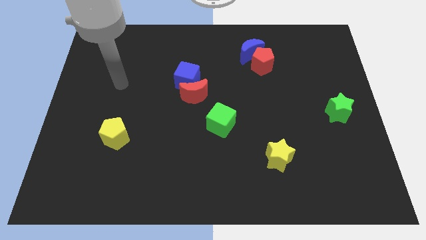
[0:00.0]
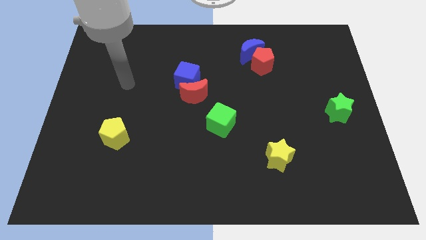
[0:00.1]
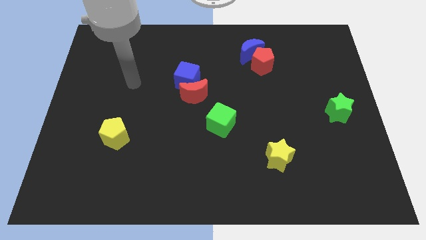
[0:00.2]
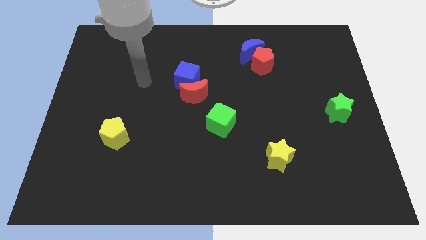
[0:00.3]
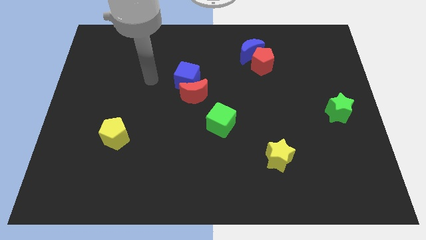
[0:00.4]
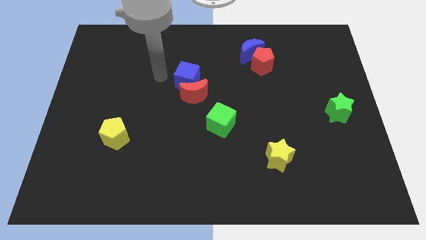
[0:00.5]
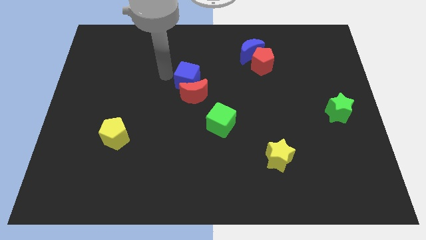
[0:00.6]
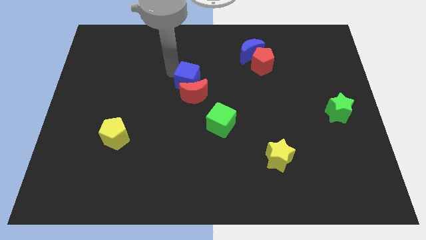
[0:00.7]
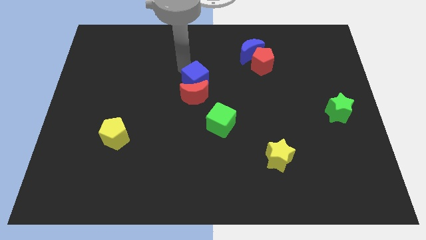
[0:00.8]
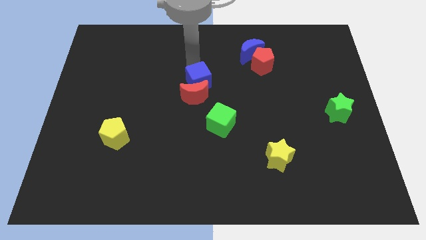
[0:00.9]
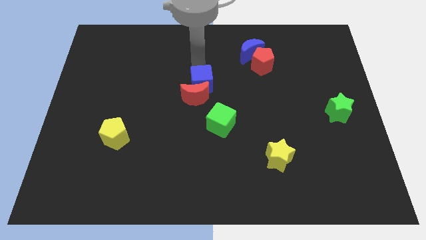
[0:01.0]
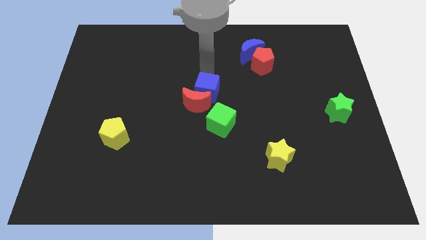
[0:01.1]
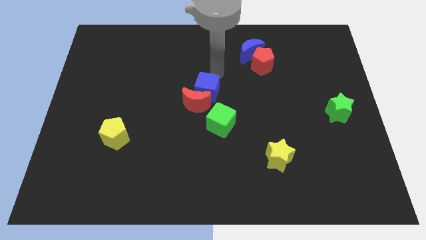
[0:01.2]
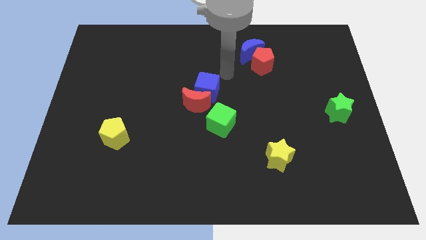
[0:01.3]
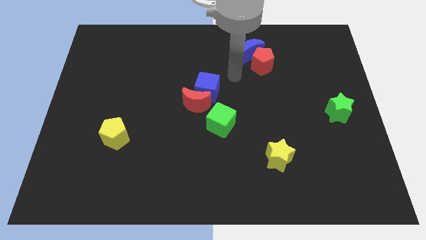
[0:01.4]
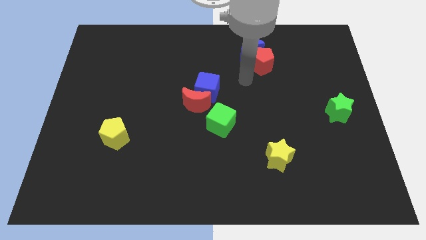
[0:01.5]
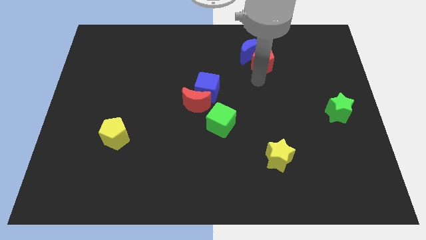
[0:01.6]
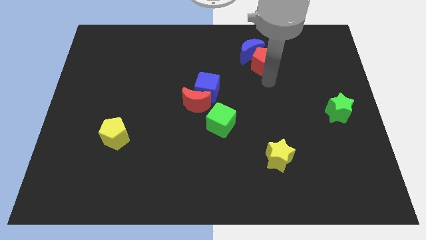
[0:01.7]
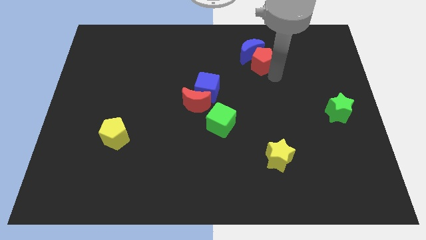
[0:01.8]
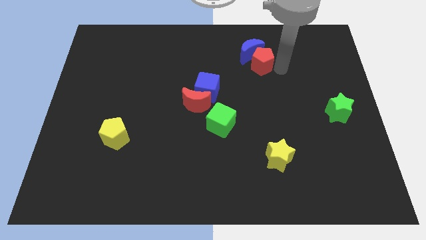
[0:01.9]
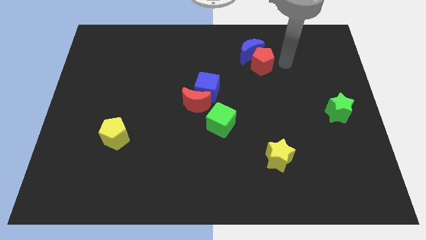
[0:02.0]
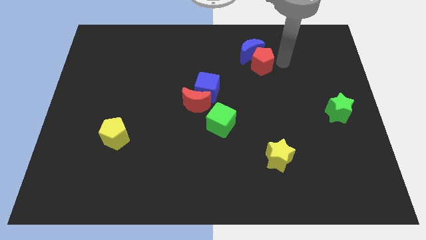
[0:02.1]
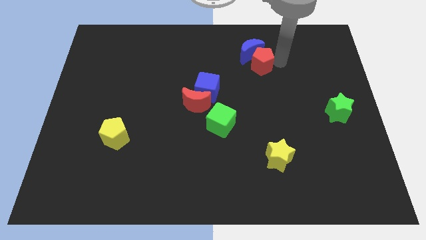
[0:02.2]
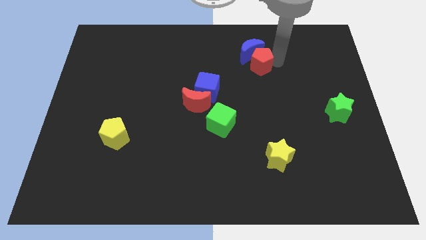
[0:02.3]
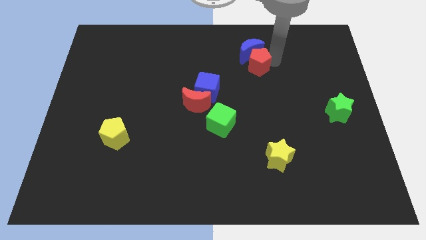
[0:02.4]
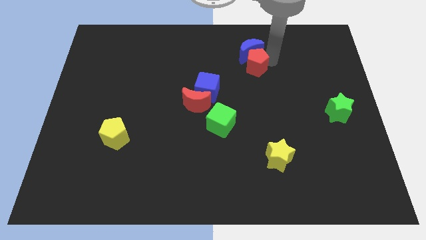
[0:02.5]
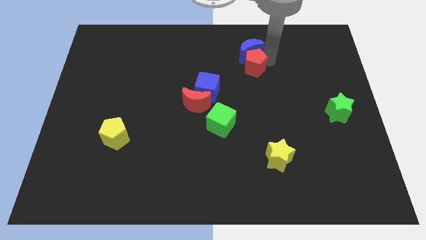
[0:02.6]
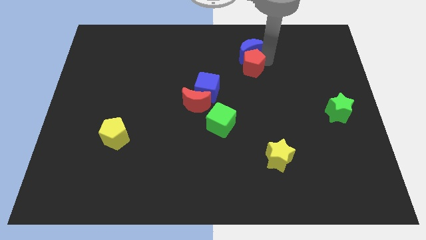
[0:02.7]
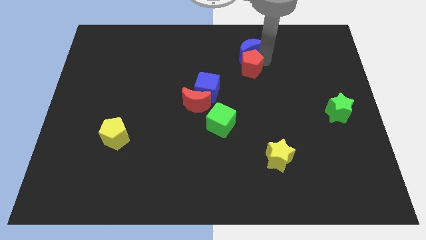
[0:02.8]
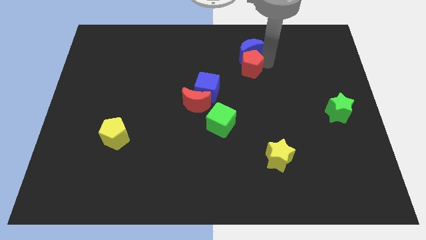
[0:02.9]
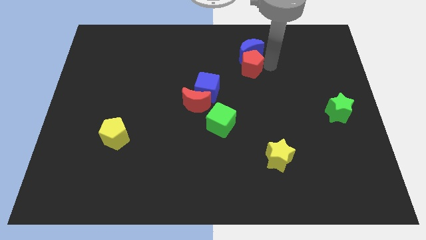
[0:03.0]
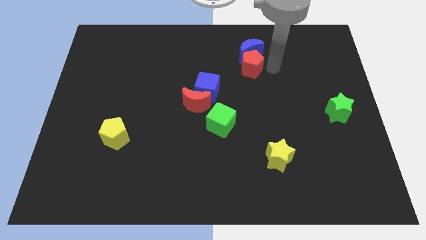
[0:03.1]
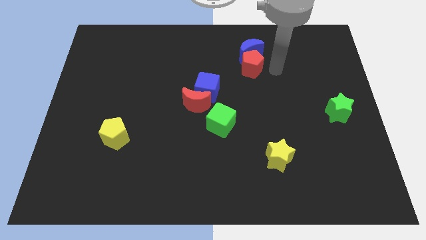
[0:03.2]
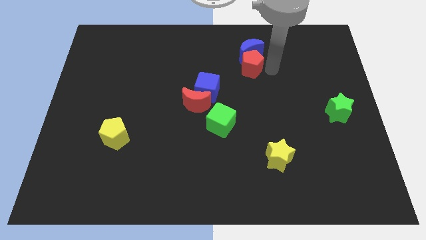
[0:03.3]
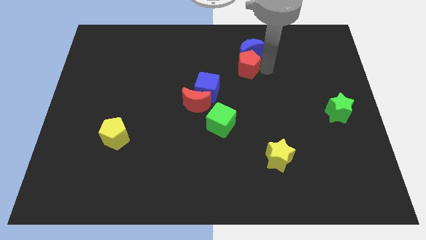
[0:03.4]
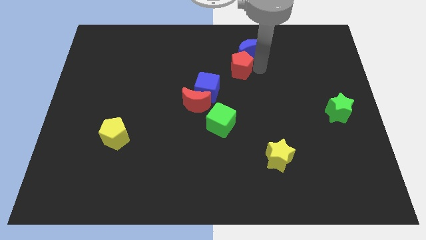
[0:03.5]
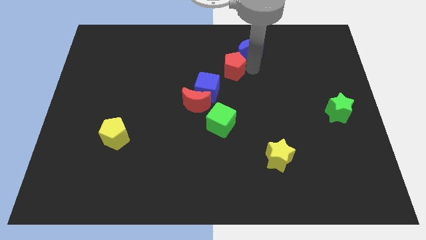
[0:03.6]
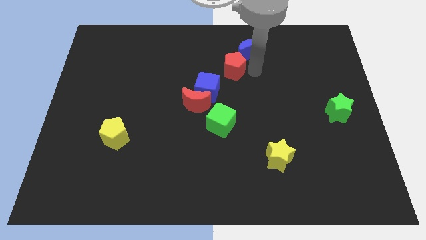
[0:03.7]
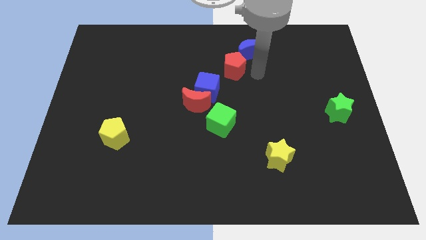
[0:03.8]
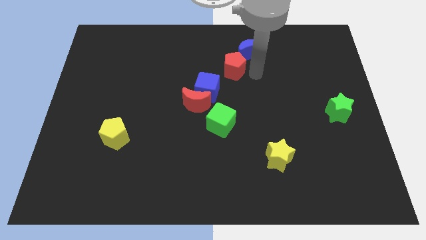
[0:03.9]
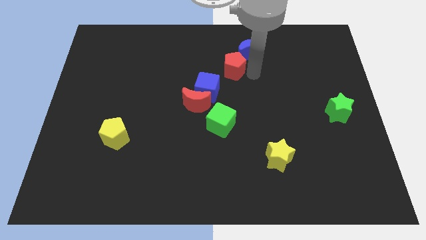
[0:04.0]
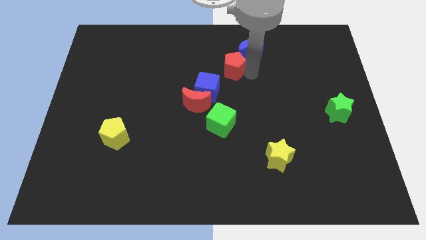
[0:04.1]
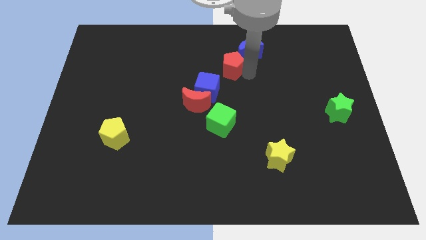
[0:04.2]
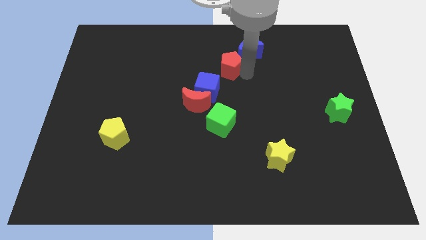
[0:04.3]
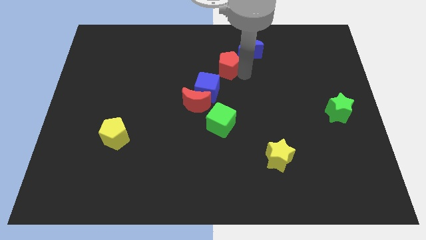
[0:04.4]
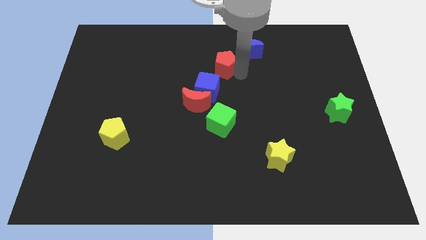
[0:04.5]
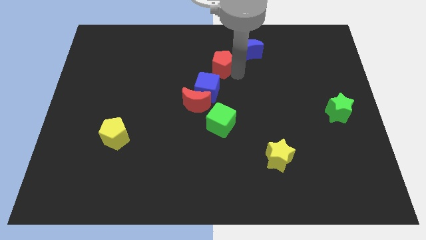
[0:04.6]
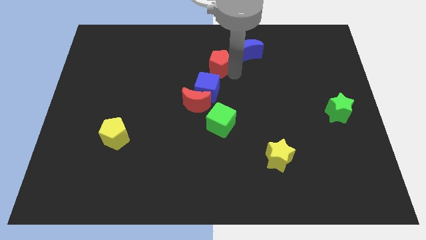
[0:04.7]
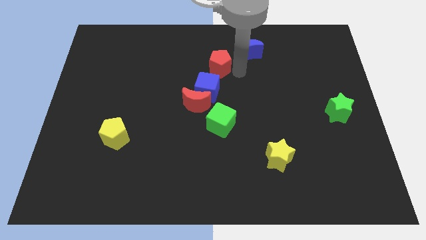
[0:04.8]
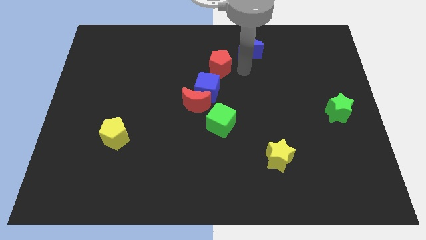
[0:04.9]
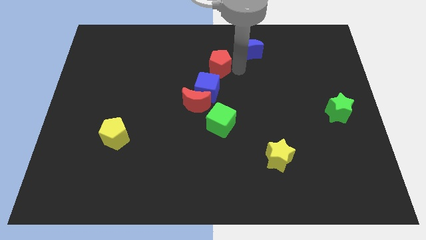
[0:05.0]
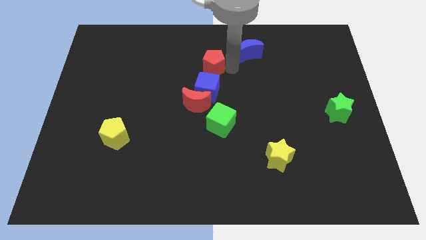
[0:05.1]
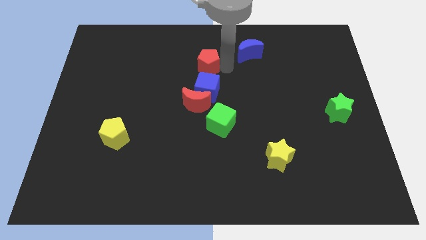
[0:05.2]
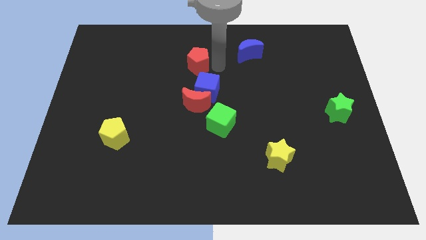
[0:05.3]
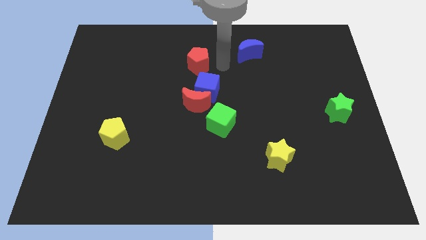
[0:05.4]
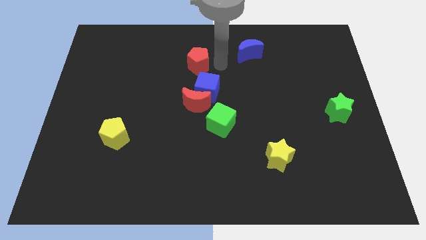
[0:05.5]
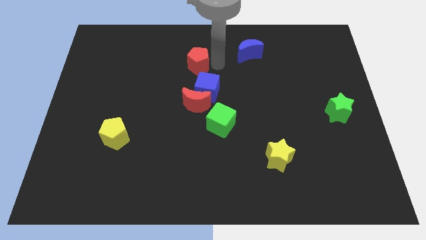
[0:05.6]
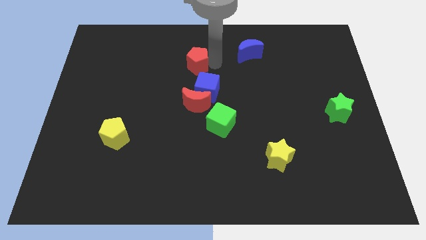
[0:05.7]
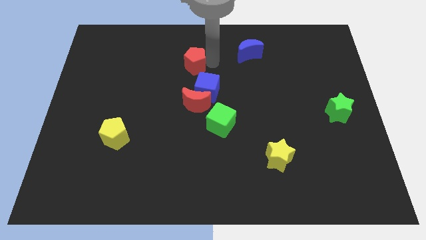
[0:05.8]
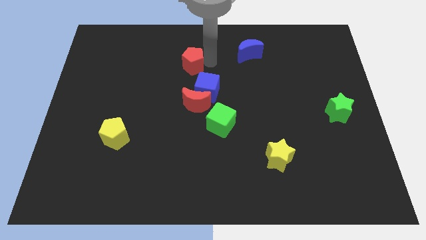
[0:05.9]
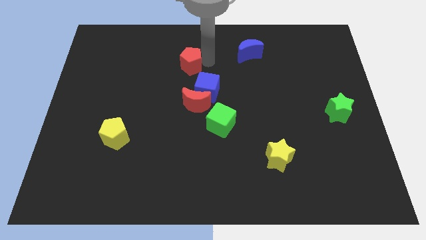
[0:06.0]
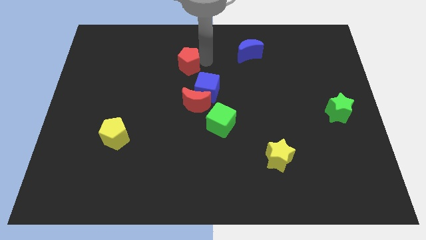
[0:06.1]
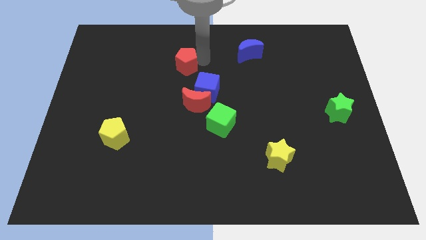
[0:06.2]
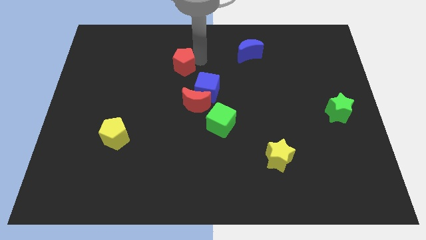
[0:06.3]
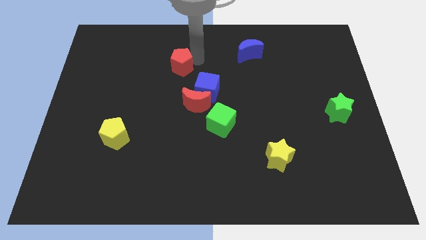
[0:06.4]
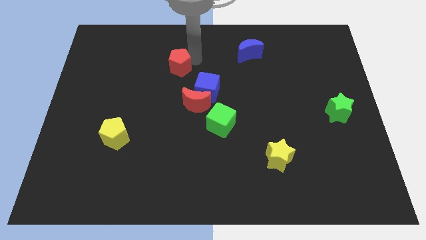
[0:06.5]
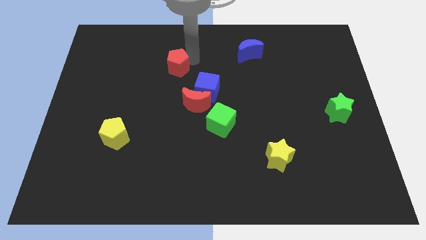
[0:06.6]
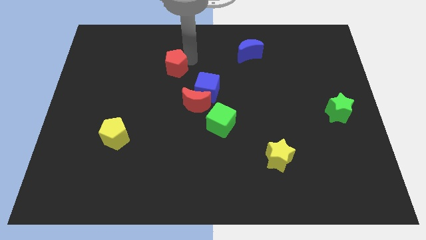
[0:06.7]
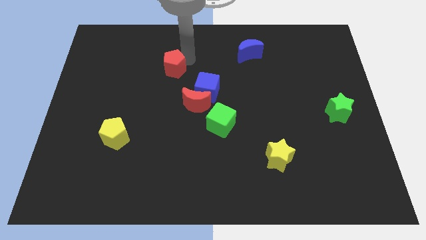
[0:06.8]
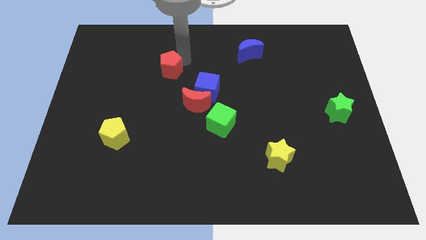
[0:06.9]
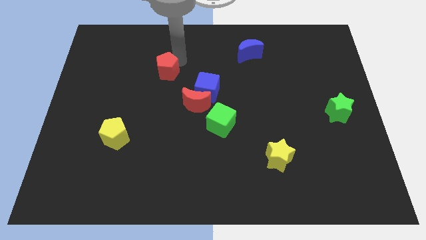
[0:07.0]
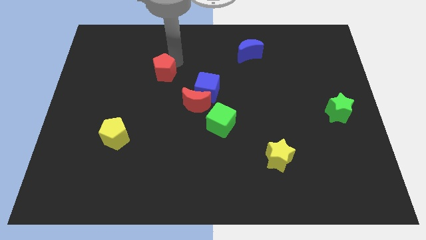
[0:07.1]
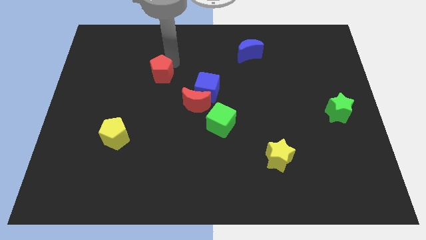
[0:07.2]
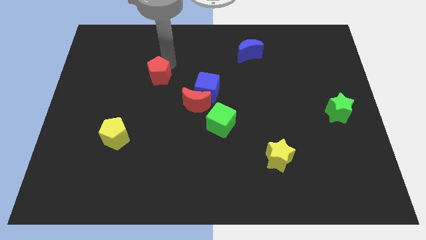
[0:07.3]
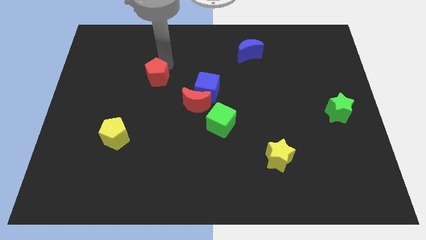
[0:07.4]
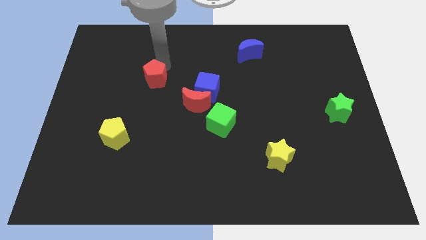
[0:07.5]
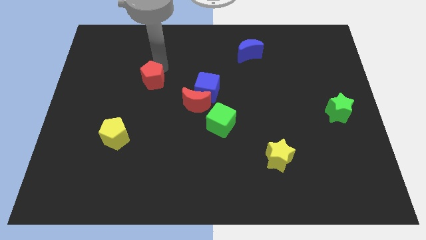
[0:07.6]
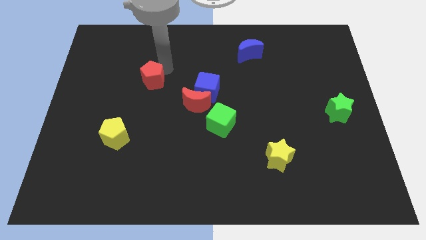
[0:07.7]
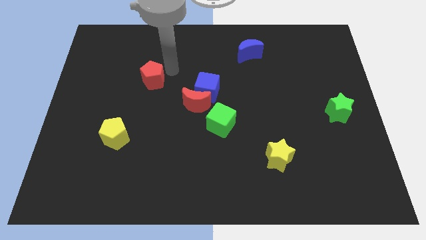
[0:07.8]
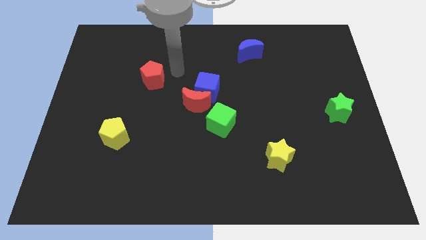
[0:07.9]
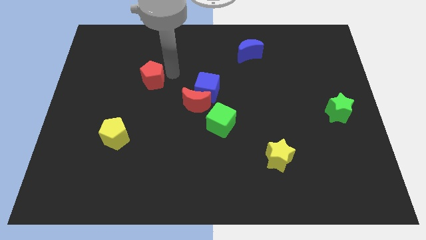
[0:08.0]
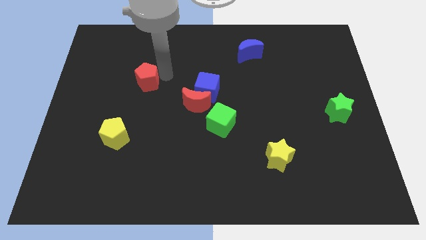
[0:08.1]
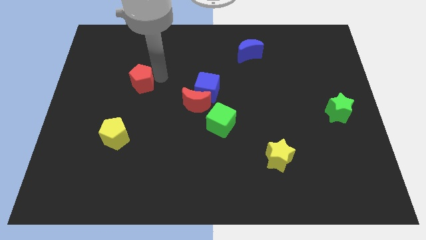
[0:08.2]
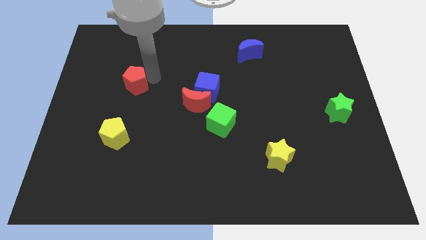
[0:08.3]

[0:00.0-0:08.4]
put the red pentagon to the top of the yellow pentagon
